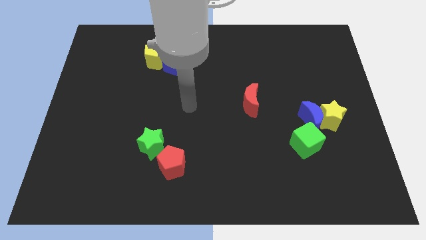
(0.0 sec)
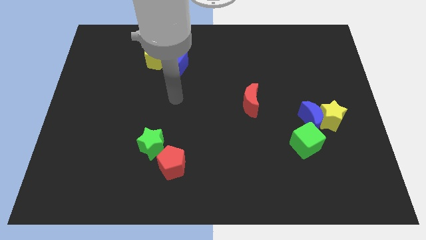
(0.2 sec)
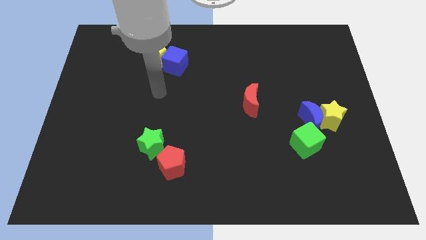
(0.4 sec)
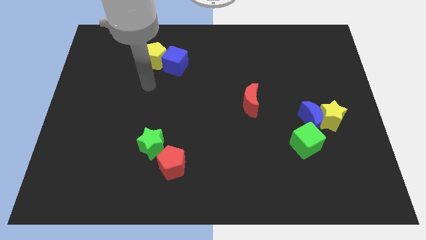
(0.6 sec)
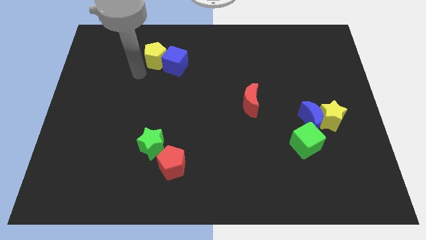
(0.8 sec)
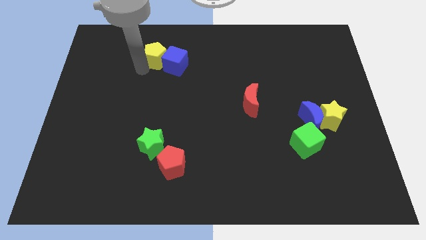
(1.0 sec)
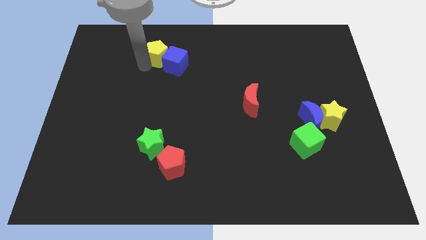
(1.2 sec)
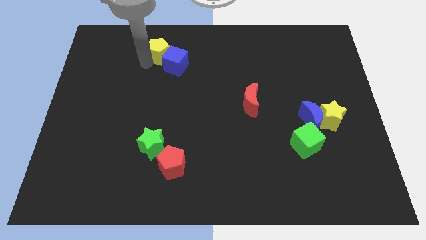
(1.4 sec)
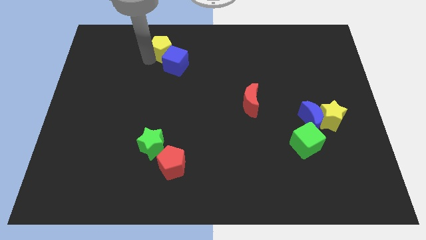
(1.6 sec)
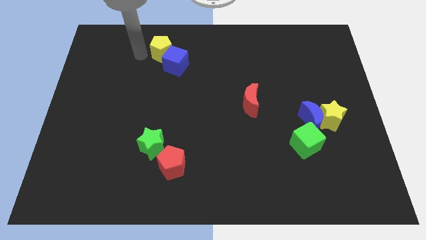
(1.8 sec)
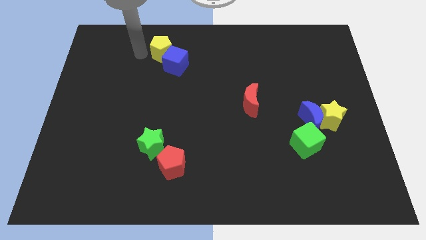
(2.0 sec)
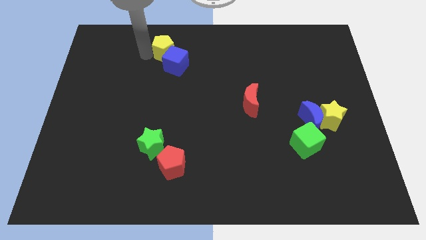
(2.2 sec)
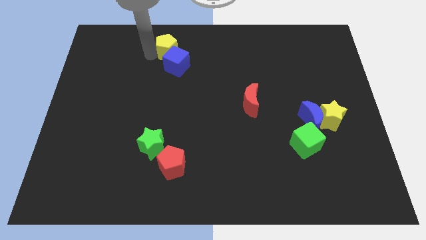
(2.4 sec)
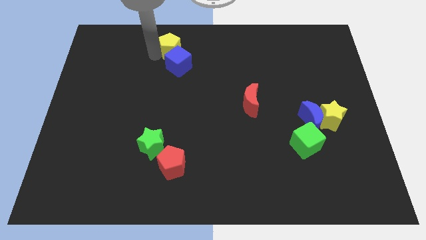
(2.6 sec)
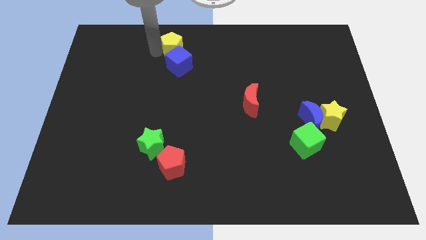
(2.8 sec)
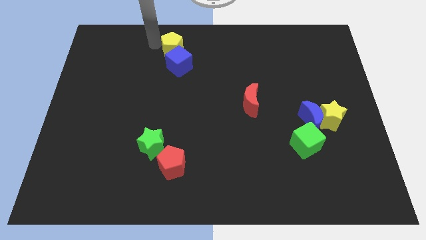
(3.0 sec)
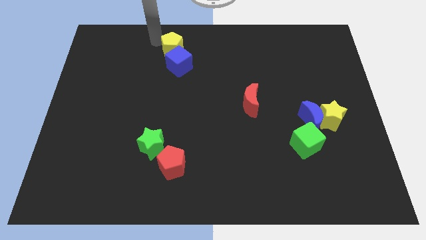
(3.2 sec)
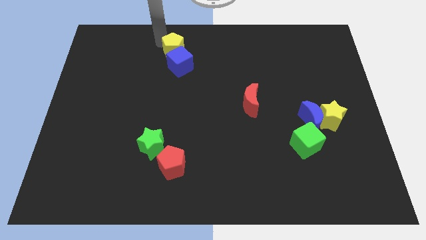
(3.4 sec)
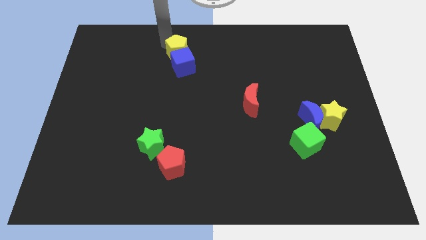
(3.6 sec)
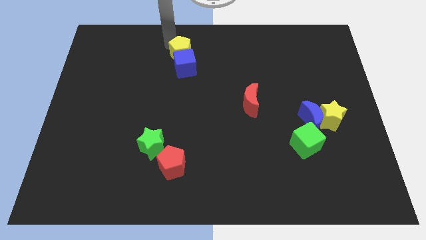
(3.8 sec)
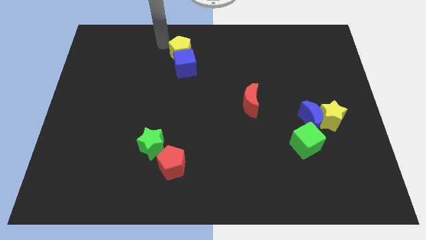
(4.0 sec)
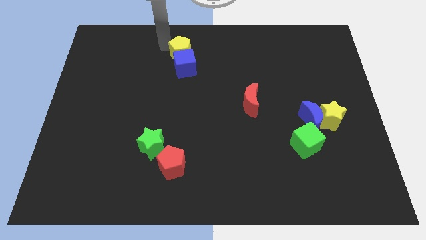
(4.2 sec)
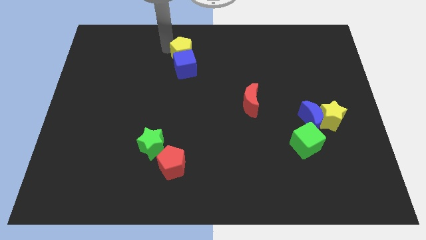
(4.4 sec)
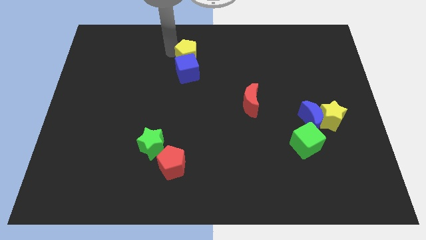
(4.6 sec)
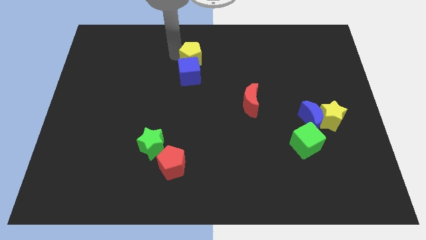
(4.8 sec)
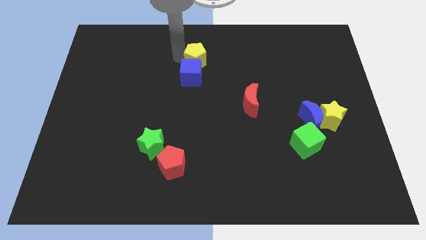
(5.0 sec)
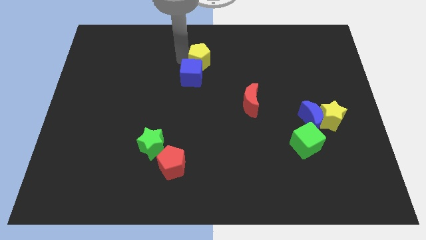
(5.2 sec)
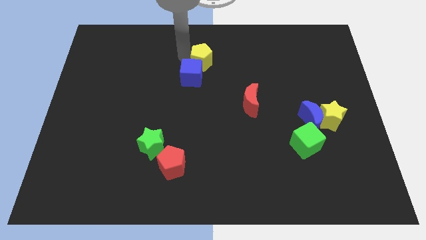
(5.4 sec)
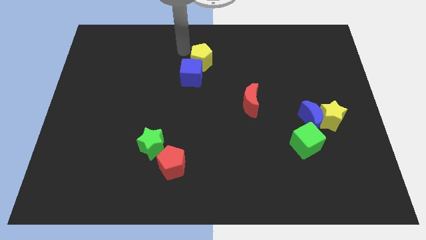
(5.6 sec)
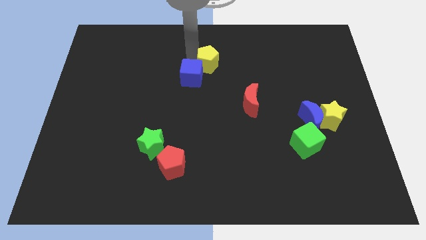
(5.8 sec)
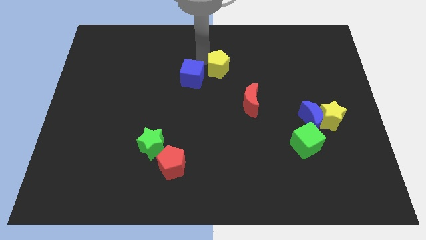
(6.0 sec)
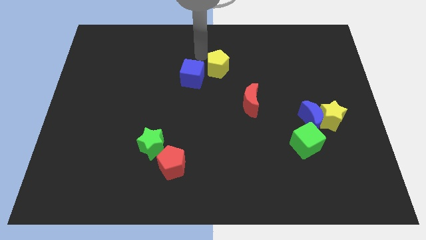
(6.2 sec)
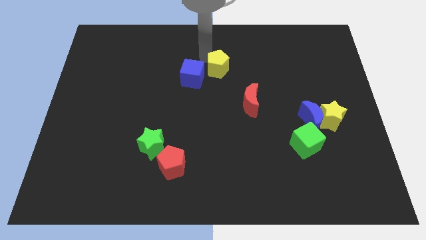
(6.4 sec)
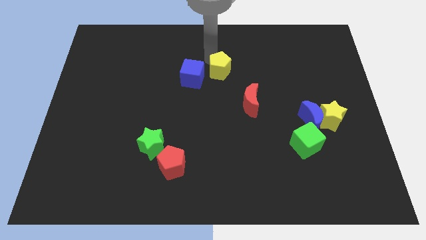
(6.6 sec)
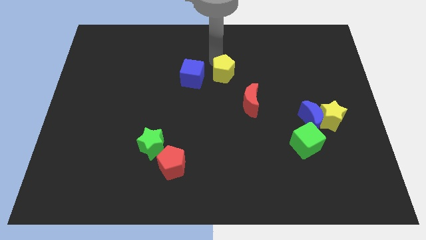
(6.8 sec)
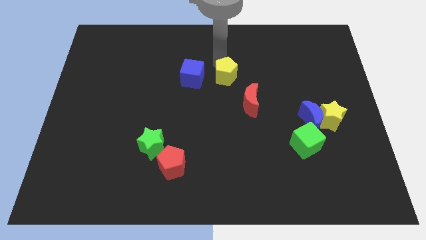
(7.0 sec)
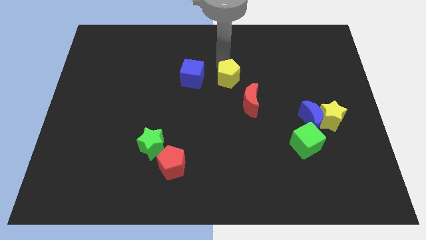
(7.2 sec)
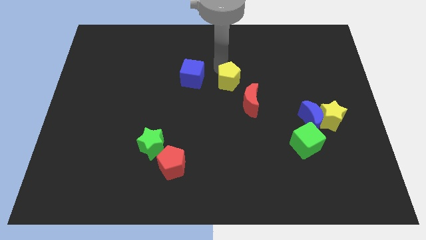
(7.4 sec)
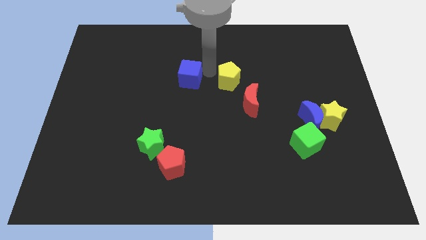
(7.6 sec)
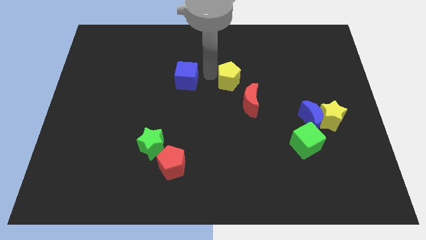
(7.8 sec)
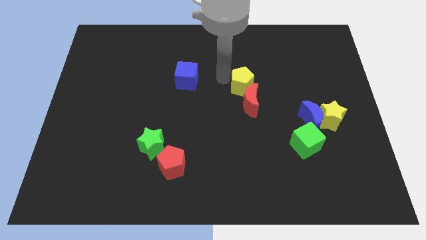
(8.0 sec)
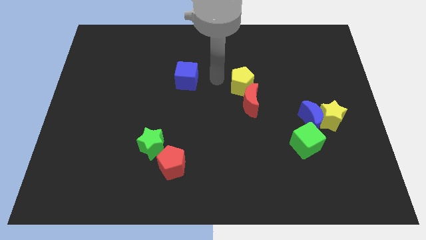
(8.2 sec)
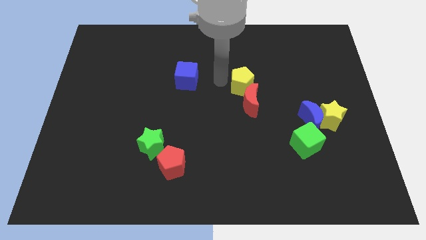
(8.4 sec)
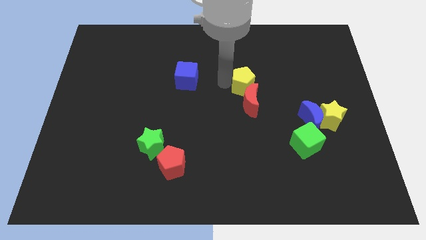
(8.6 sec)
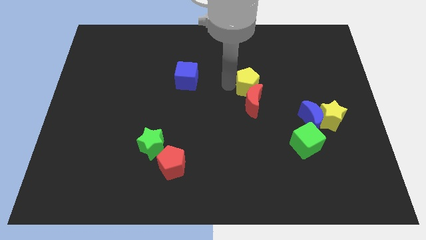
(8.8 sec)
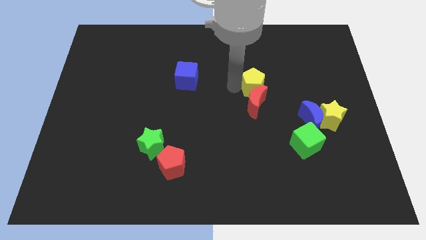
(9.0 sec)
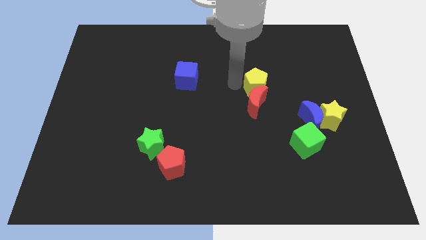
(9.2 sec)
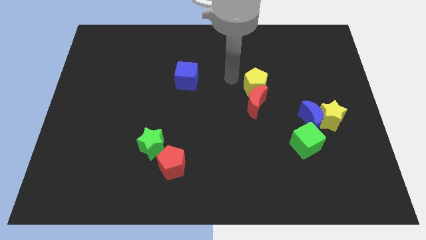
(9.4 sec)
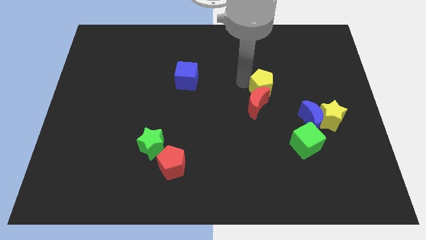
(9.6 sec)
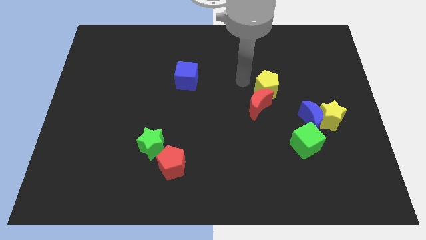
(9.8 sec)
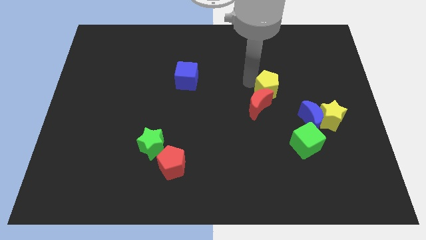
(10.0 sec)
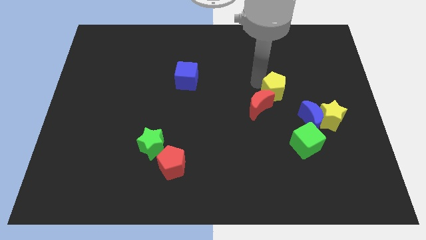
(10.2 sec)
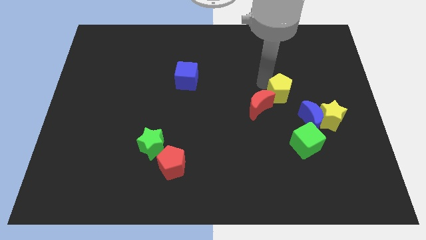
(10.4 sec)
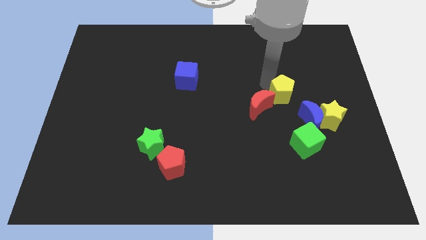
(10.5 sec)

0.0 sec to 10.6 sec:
slide the yellow pentagon to the top left side of the yellow star
